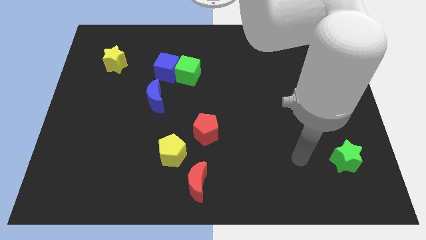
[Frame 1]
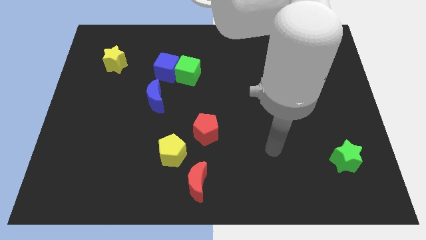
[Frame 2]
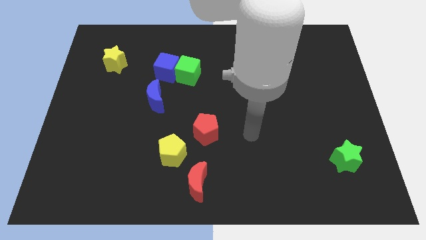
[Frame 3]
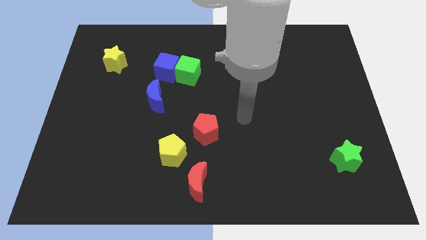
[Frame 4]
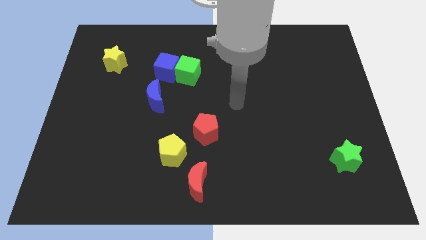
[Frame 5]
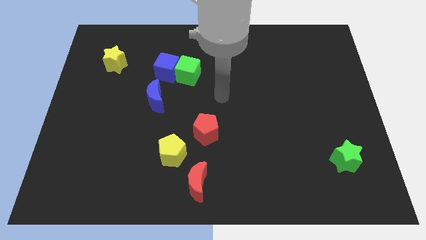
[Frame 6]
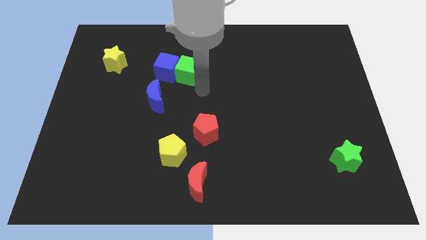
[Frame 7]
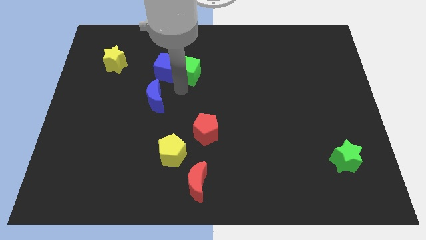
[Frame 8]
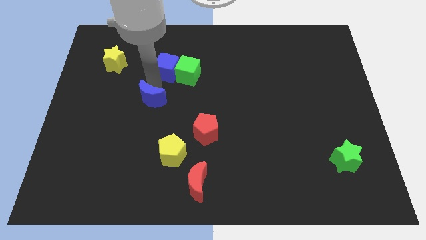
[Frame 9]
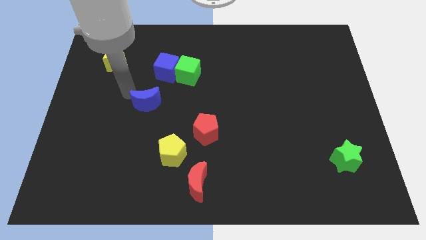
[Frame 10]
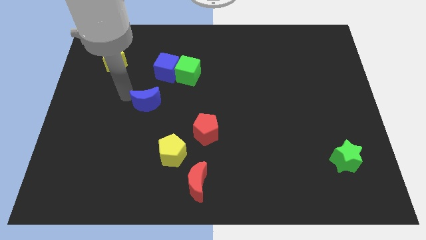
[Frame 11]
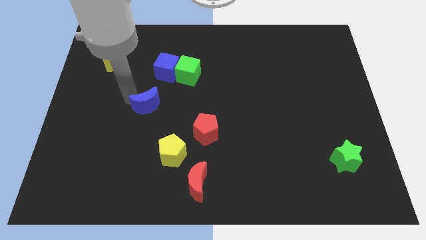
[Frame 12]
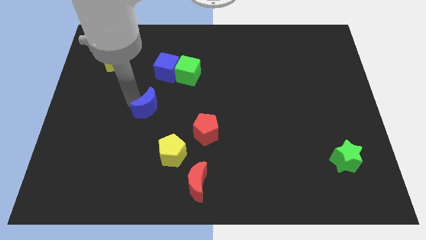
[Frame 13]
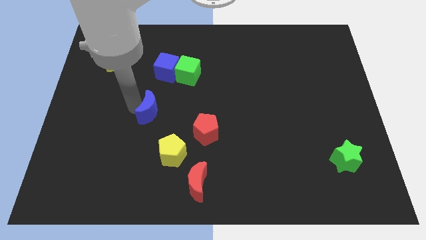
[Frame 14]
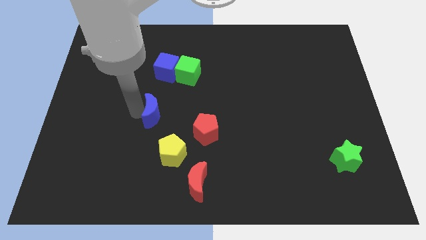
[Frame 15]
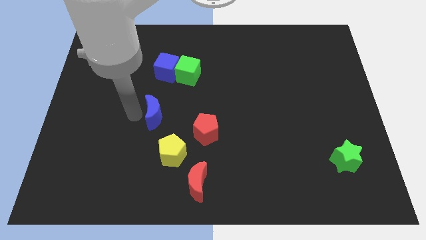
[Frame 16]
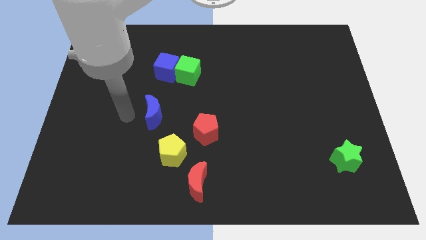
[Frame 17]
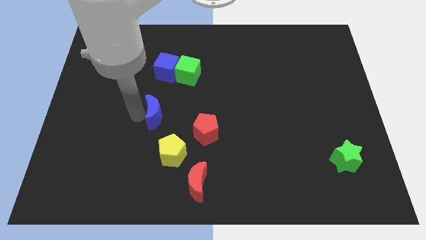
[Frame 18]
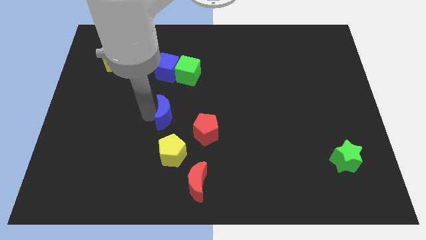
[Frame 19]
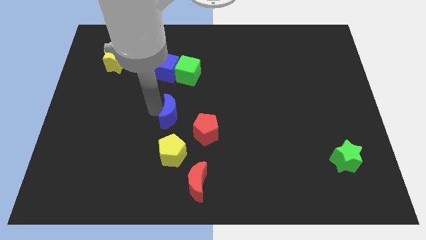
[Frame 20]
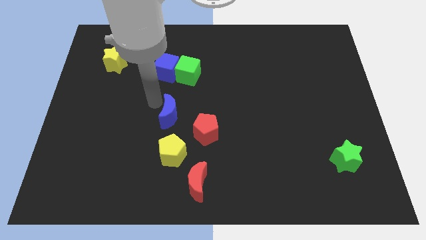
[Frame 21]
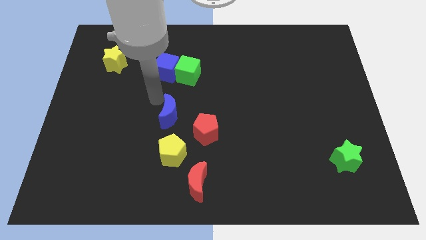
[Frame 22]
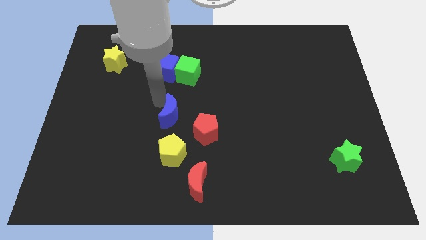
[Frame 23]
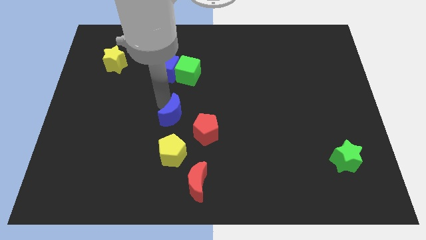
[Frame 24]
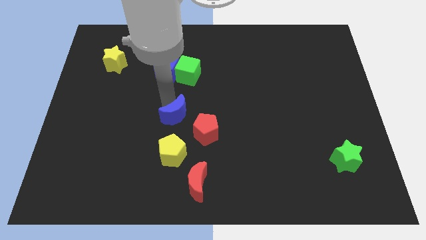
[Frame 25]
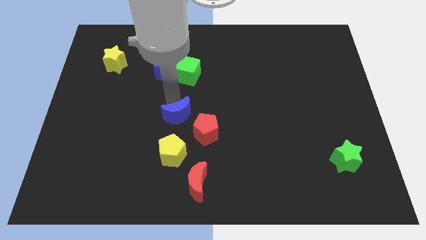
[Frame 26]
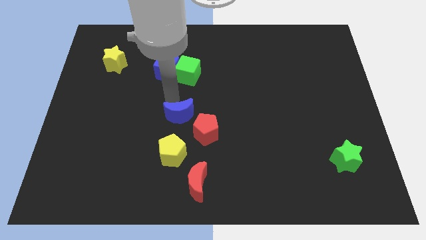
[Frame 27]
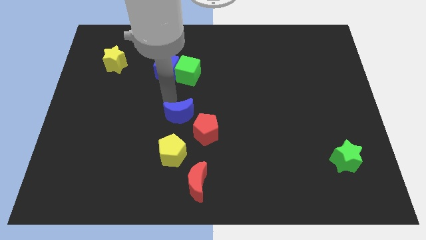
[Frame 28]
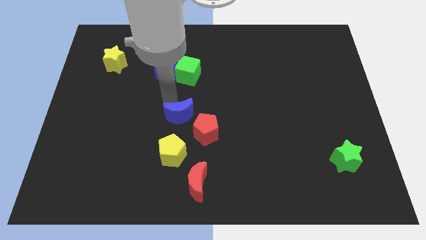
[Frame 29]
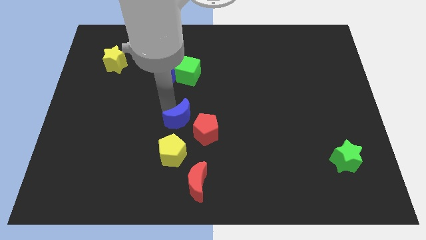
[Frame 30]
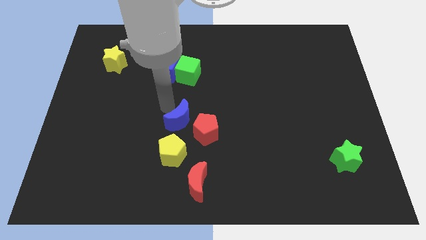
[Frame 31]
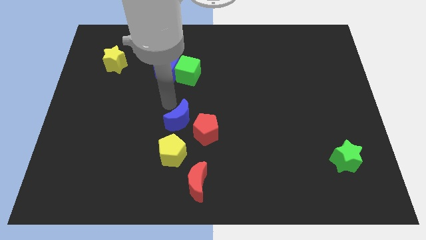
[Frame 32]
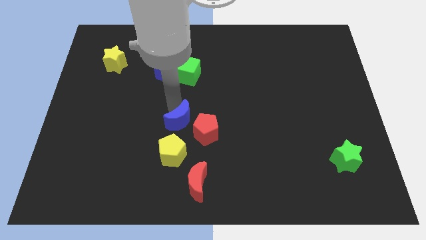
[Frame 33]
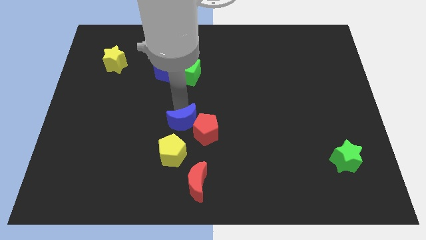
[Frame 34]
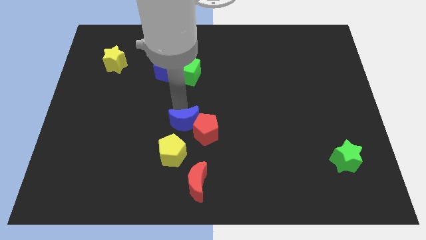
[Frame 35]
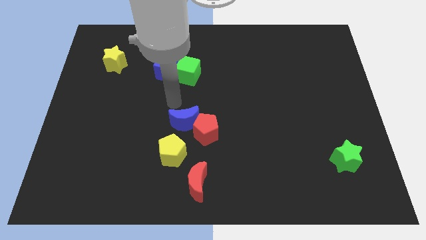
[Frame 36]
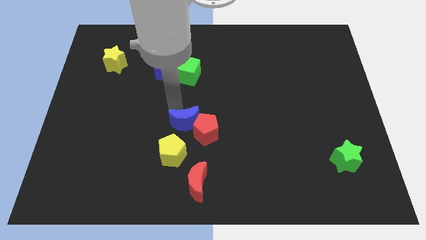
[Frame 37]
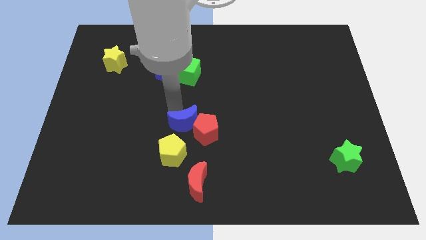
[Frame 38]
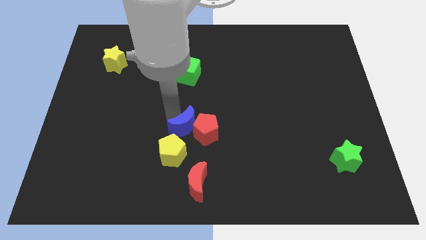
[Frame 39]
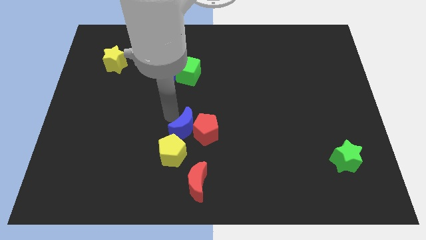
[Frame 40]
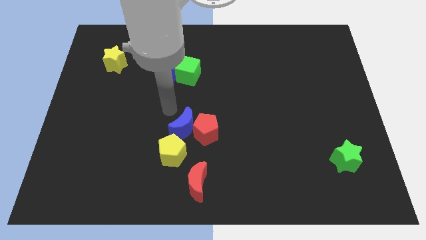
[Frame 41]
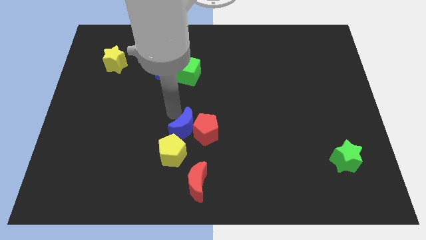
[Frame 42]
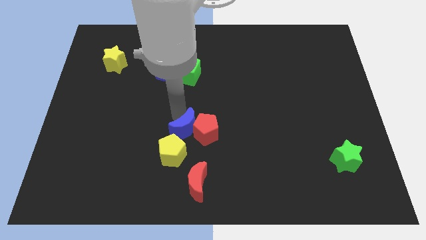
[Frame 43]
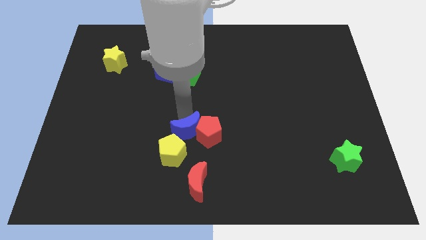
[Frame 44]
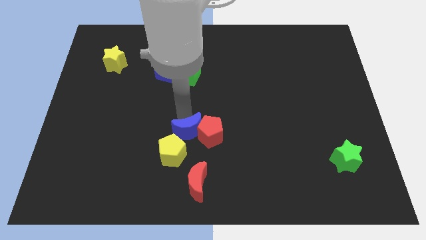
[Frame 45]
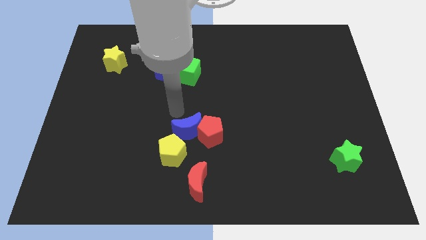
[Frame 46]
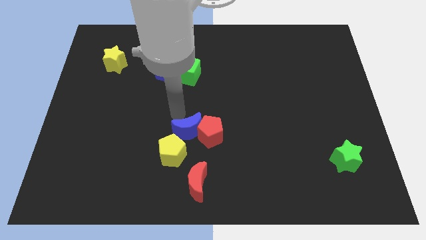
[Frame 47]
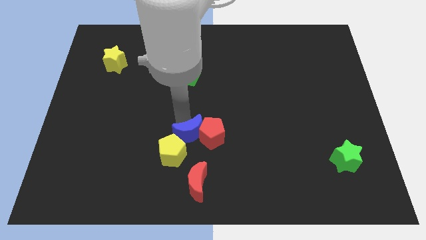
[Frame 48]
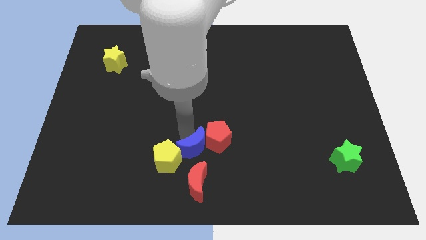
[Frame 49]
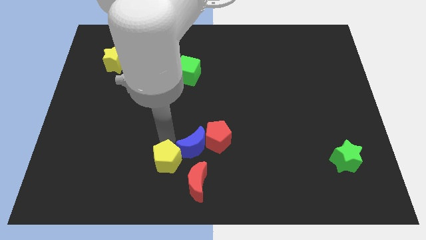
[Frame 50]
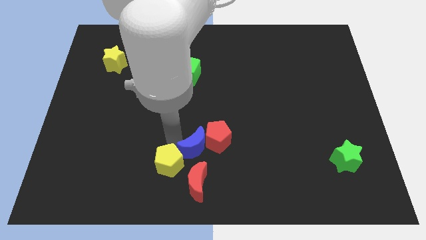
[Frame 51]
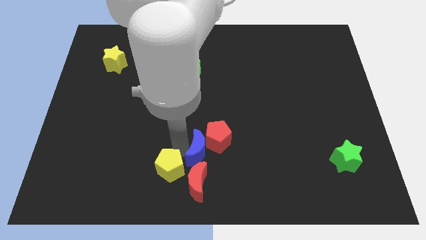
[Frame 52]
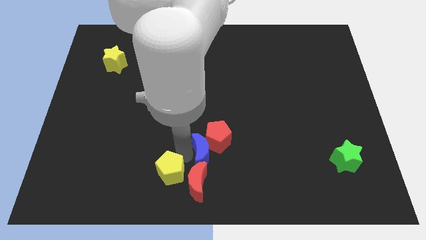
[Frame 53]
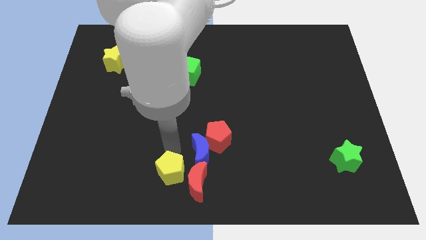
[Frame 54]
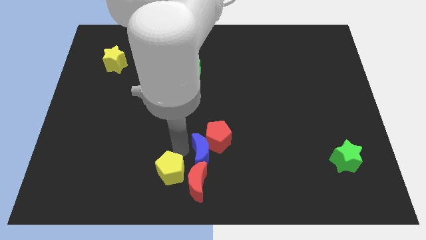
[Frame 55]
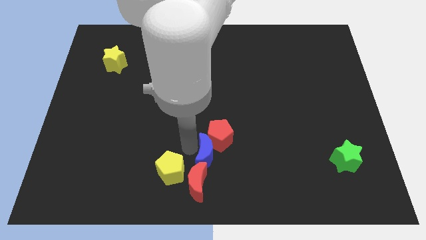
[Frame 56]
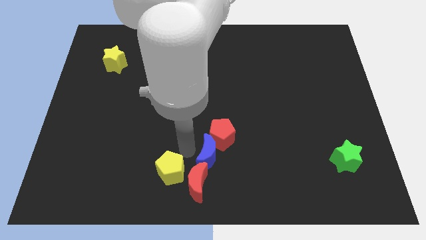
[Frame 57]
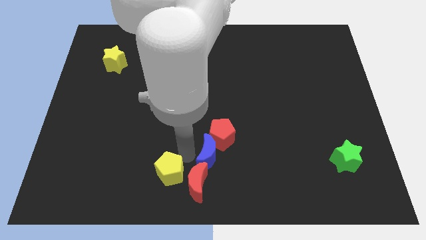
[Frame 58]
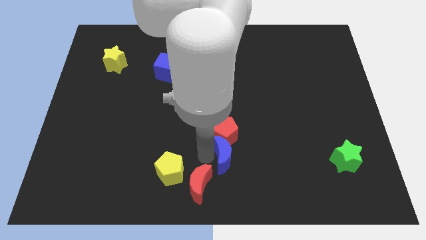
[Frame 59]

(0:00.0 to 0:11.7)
put the blue moon diagonally down and to the right of the red pentagon

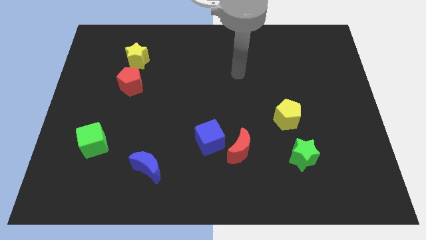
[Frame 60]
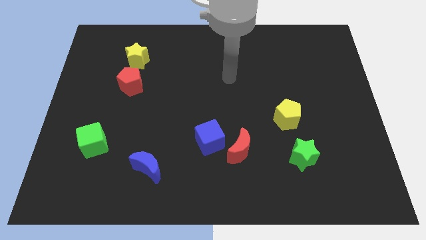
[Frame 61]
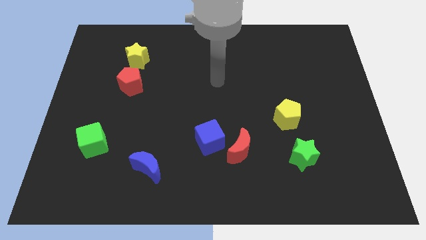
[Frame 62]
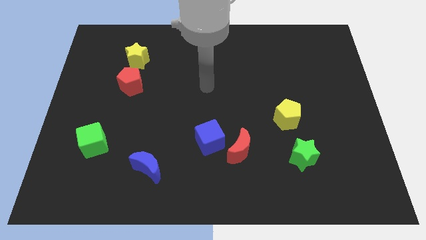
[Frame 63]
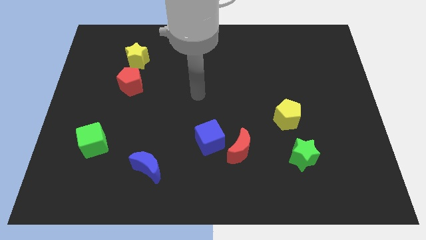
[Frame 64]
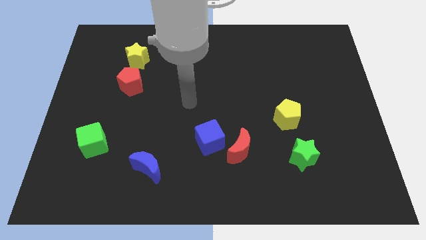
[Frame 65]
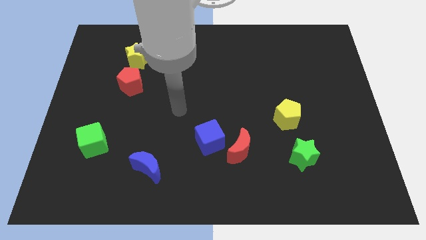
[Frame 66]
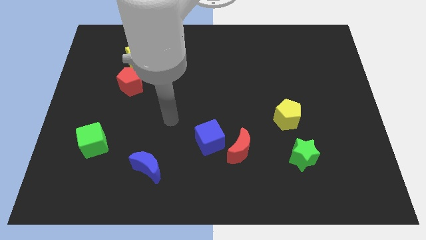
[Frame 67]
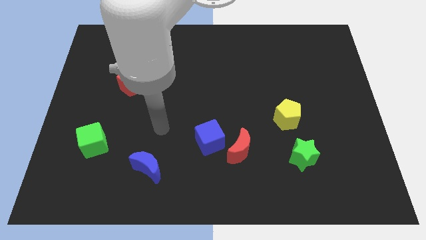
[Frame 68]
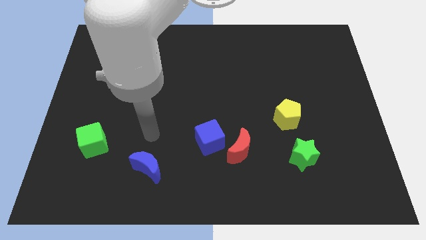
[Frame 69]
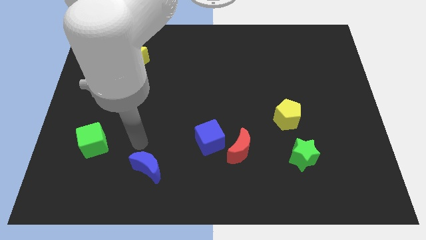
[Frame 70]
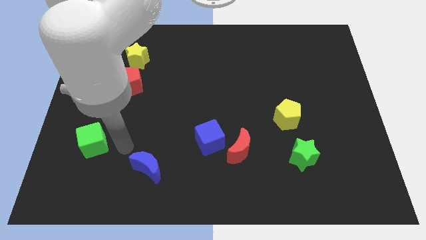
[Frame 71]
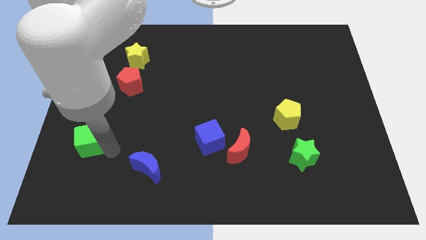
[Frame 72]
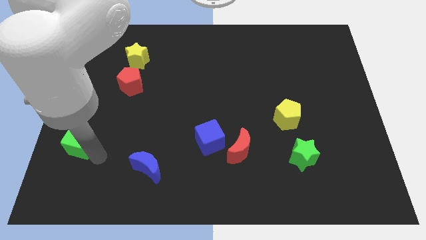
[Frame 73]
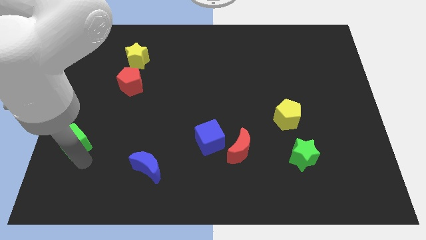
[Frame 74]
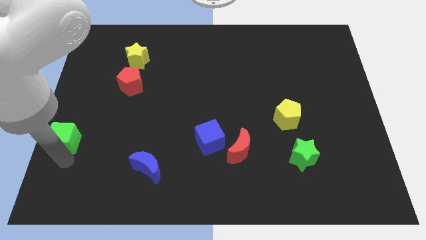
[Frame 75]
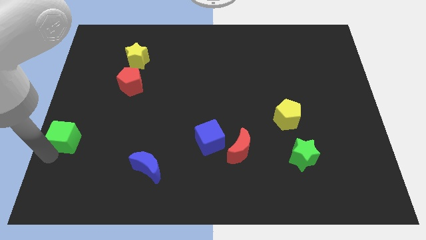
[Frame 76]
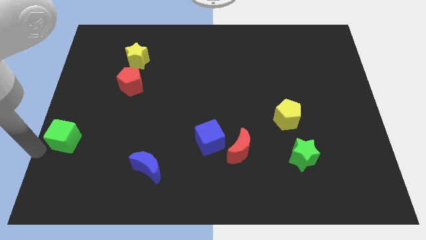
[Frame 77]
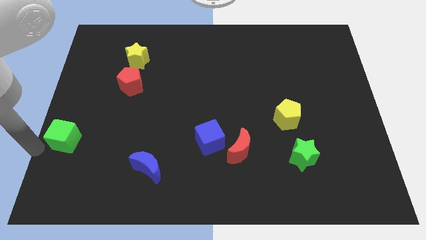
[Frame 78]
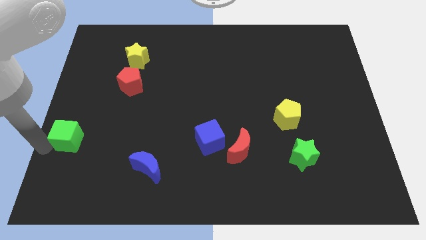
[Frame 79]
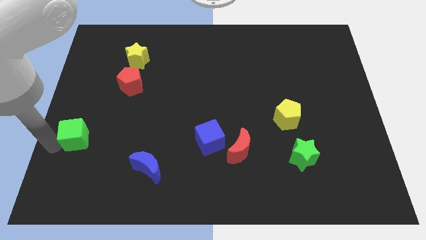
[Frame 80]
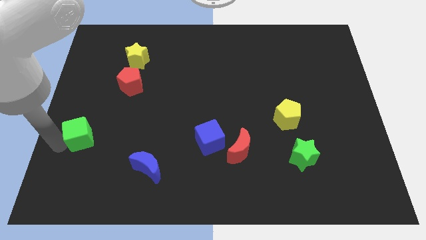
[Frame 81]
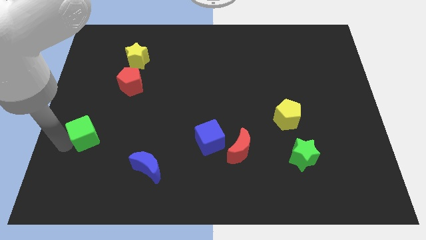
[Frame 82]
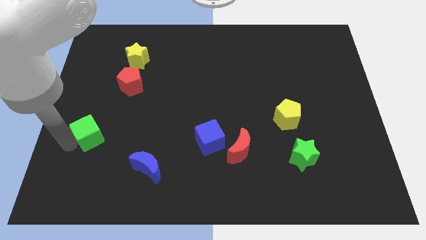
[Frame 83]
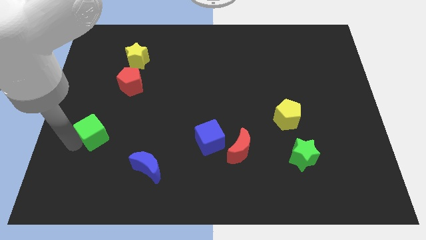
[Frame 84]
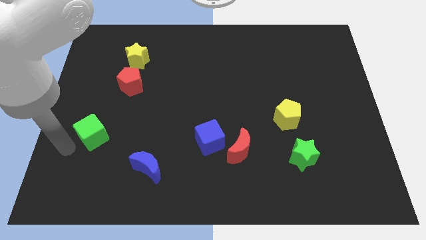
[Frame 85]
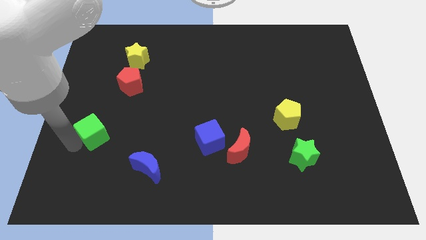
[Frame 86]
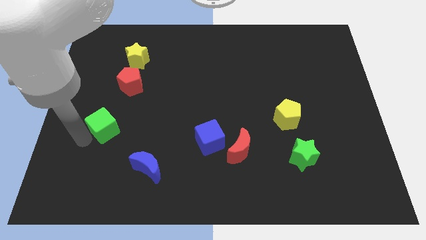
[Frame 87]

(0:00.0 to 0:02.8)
push the green cube below the red pentagon
